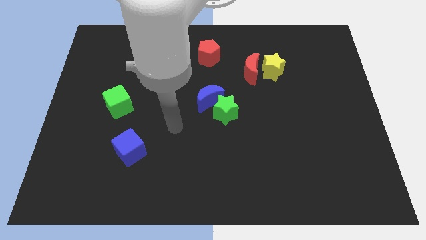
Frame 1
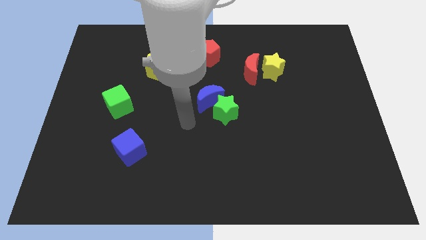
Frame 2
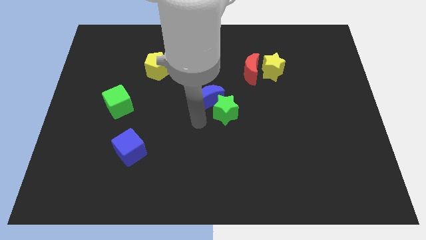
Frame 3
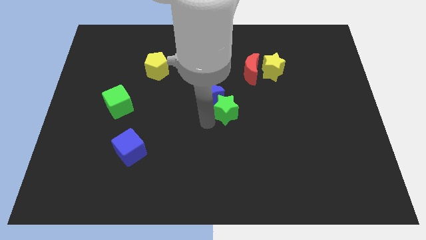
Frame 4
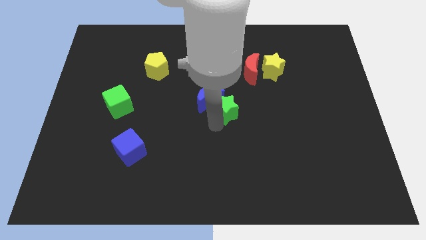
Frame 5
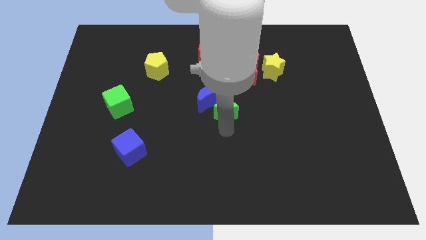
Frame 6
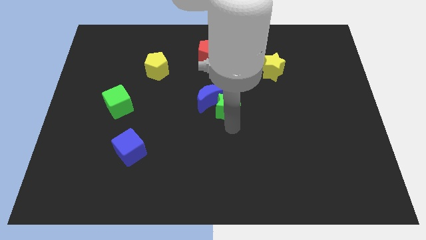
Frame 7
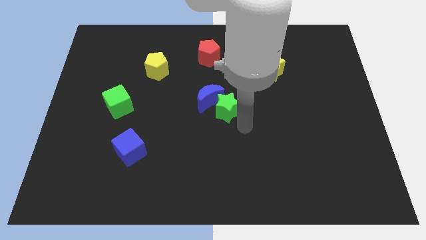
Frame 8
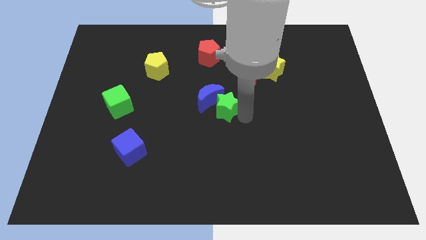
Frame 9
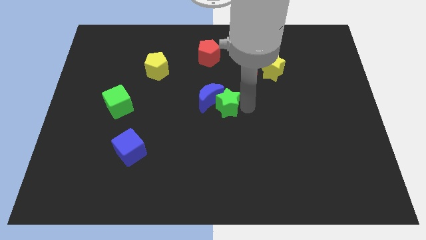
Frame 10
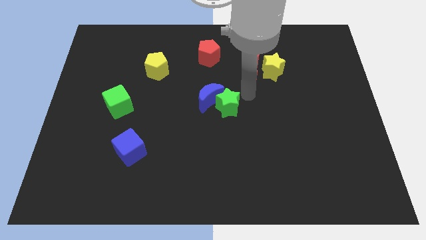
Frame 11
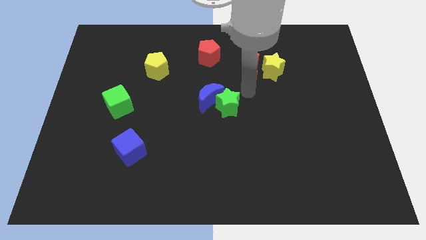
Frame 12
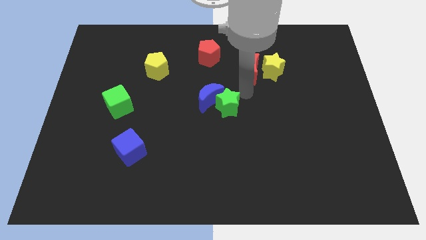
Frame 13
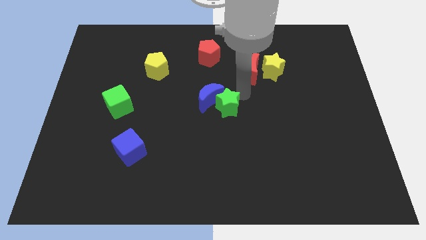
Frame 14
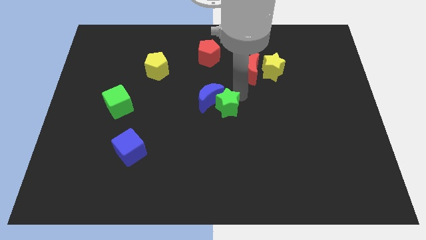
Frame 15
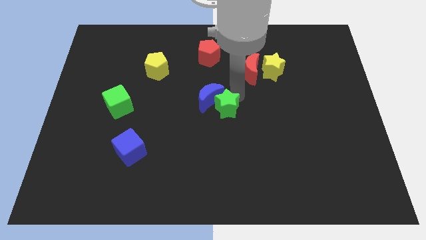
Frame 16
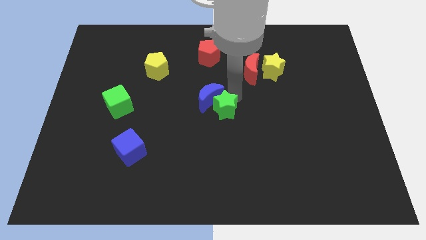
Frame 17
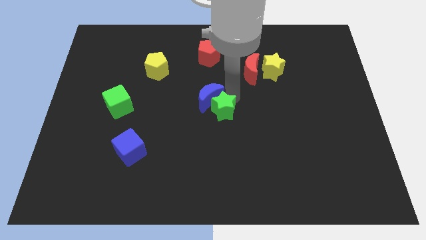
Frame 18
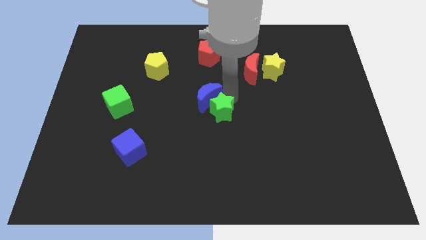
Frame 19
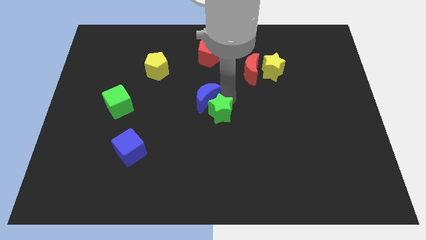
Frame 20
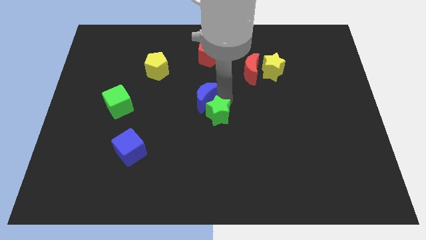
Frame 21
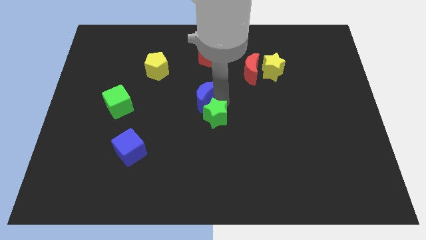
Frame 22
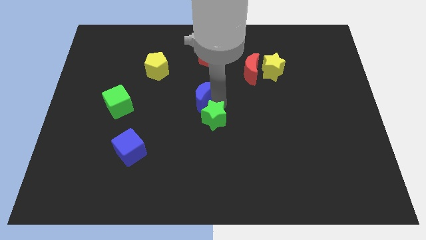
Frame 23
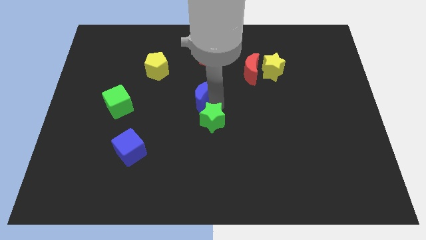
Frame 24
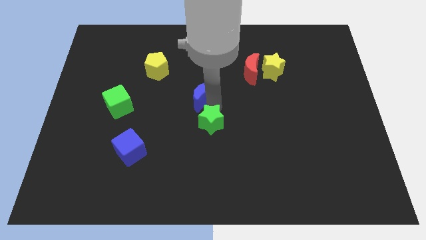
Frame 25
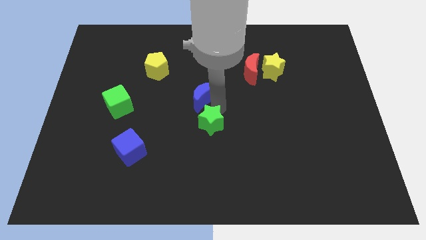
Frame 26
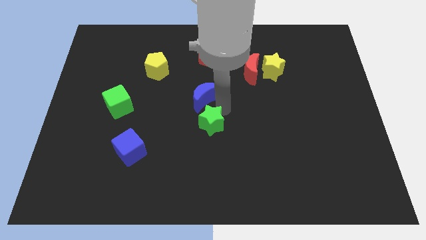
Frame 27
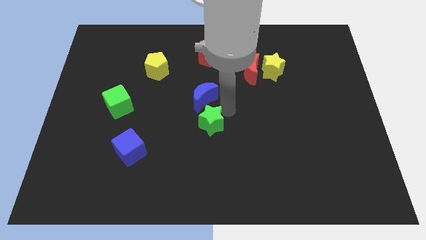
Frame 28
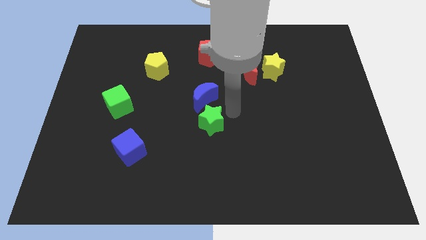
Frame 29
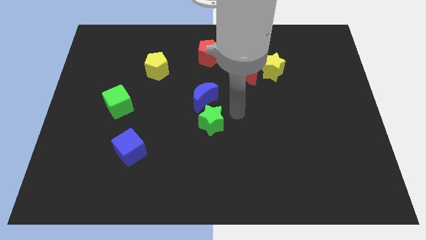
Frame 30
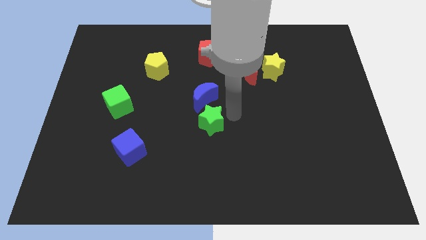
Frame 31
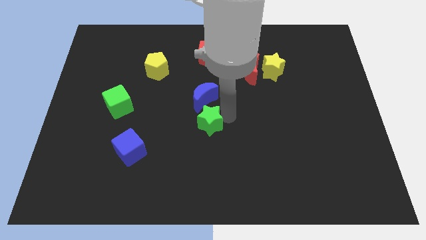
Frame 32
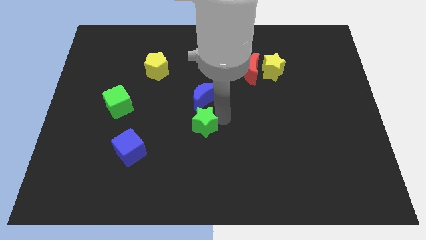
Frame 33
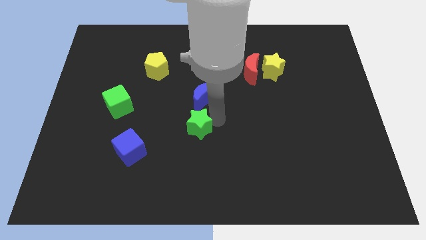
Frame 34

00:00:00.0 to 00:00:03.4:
slightly push the green star downwards and left

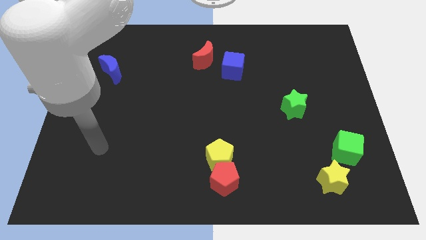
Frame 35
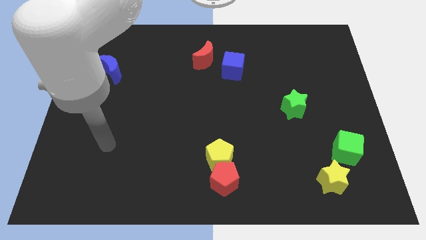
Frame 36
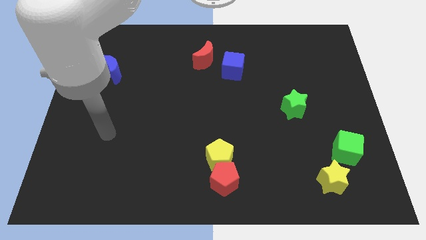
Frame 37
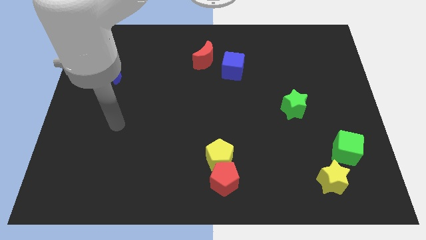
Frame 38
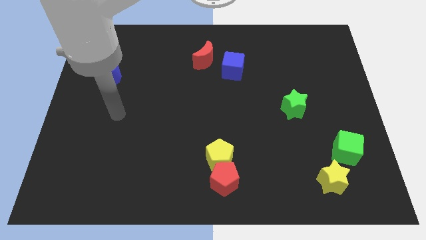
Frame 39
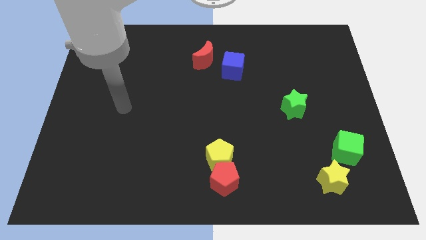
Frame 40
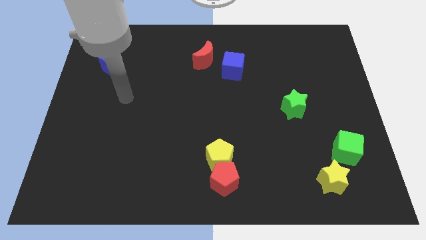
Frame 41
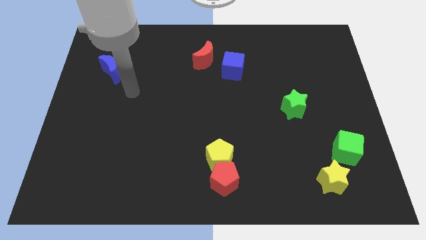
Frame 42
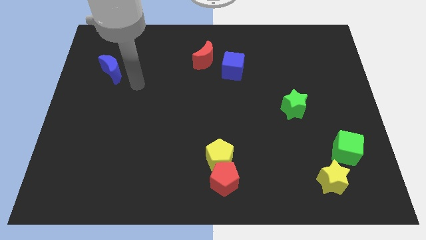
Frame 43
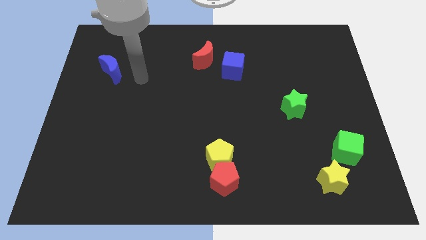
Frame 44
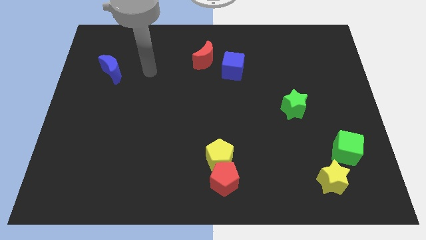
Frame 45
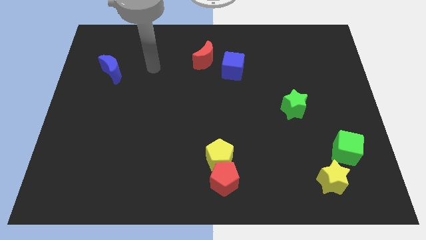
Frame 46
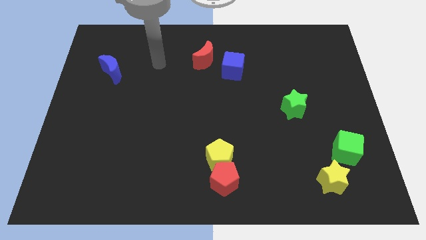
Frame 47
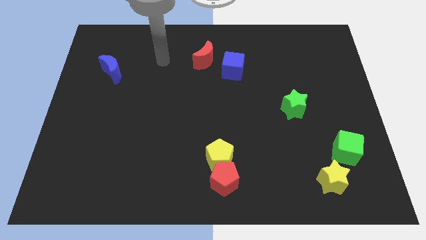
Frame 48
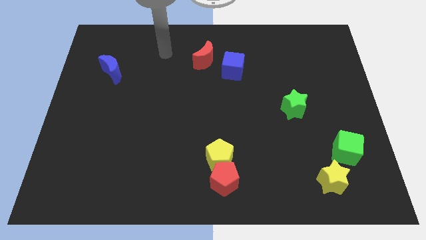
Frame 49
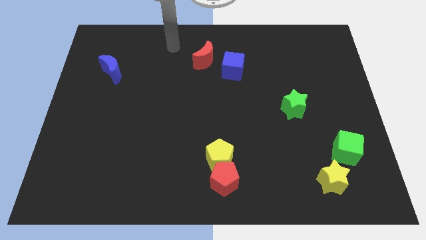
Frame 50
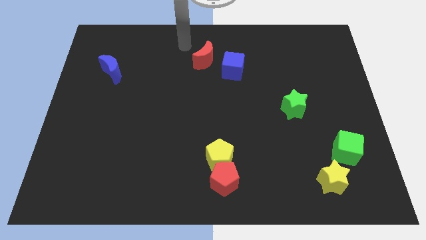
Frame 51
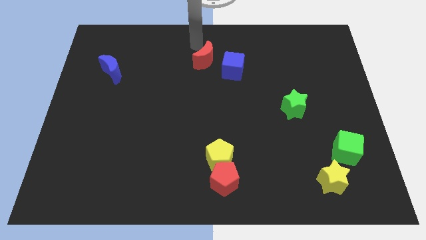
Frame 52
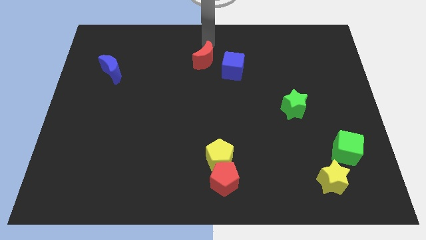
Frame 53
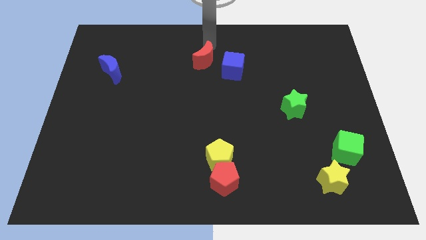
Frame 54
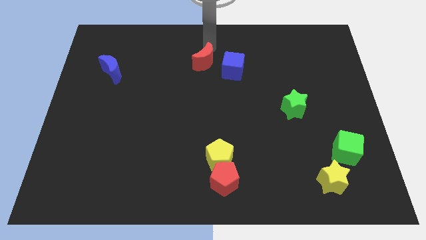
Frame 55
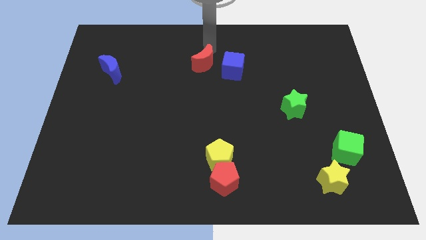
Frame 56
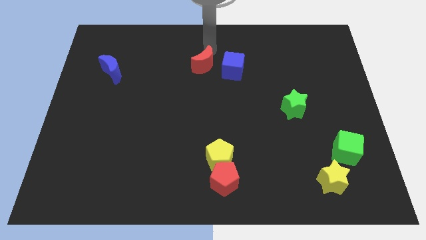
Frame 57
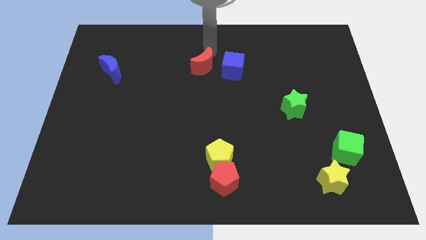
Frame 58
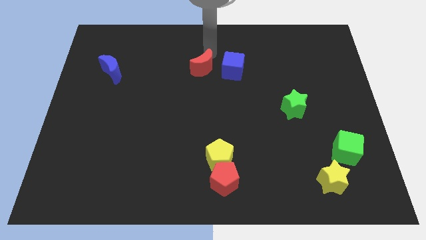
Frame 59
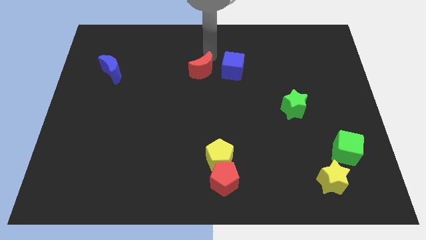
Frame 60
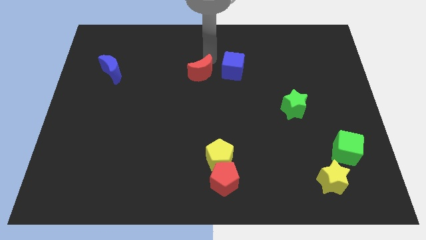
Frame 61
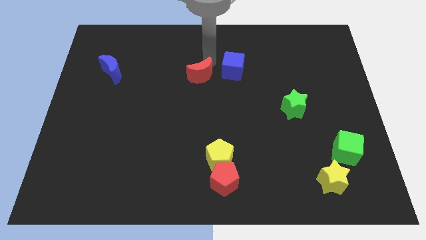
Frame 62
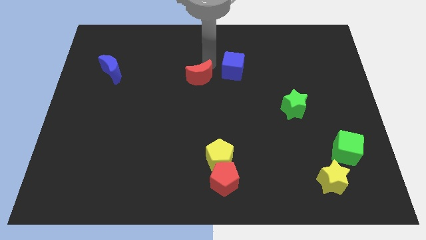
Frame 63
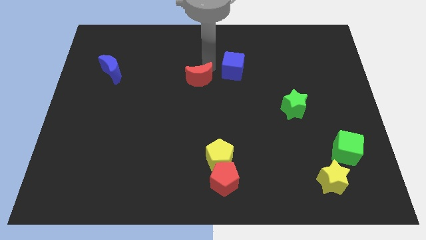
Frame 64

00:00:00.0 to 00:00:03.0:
slightly slide the red moon down

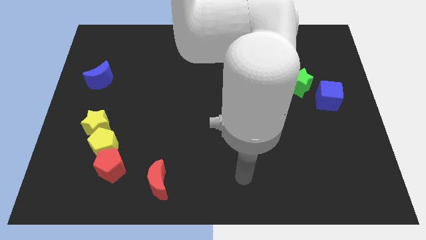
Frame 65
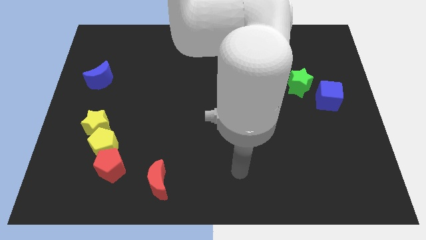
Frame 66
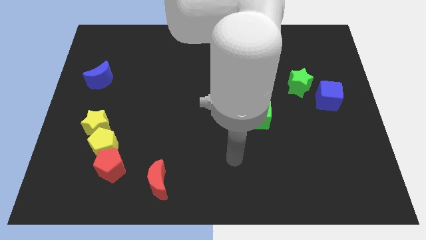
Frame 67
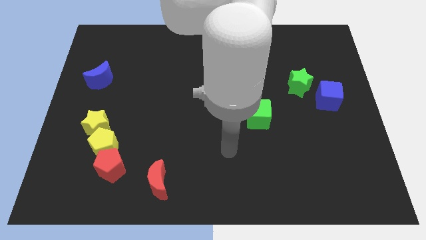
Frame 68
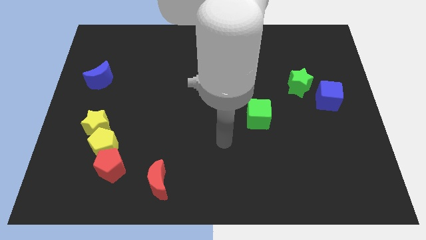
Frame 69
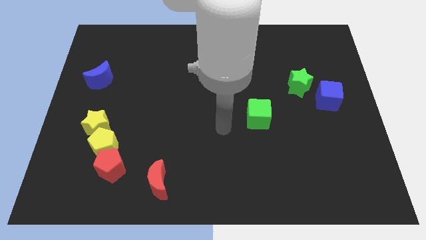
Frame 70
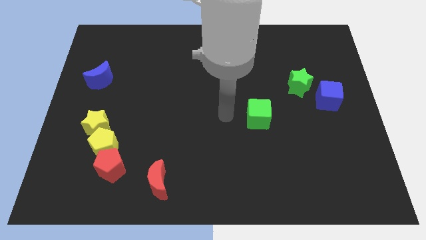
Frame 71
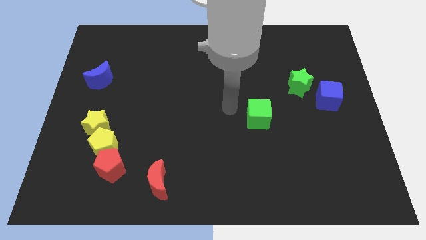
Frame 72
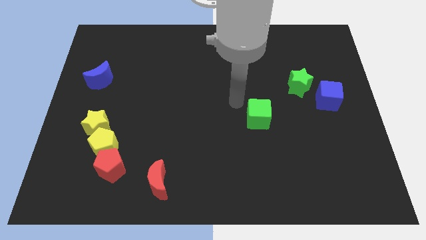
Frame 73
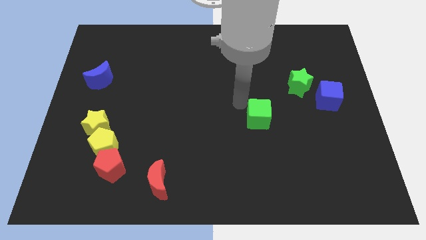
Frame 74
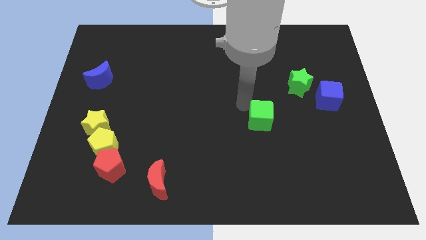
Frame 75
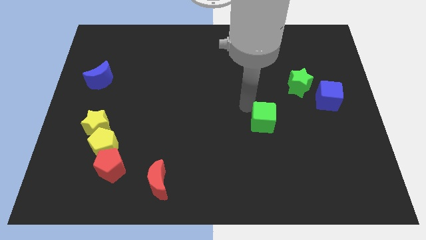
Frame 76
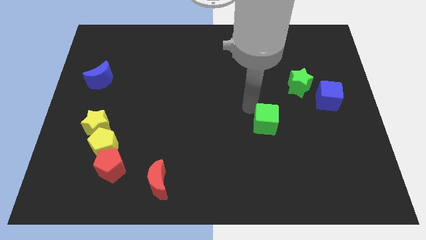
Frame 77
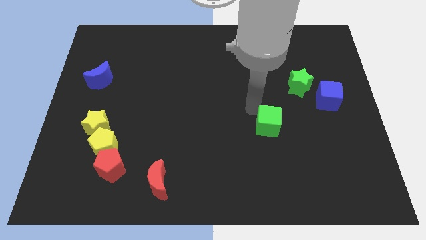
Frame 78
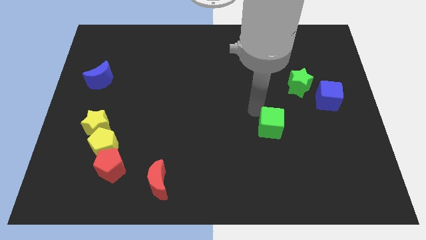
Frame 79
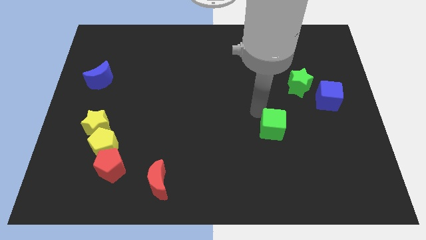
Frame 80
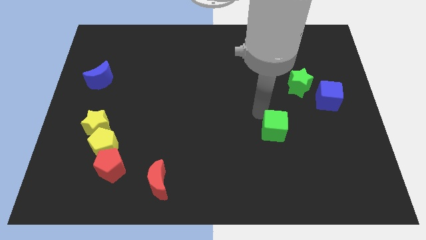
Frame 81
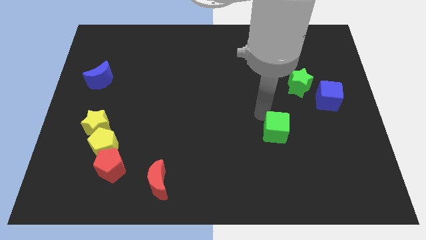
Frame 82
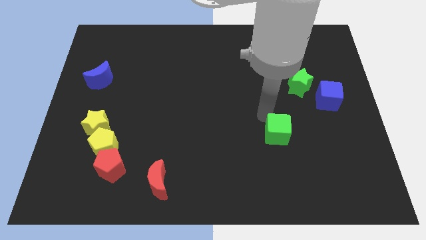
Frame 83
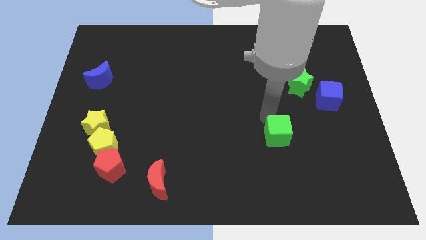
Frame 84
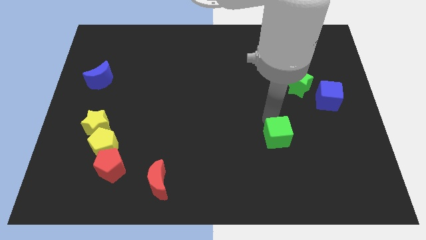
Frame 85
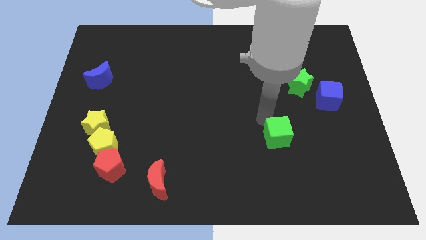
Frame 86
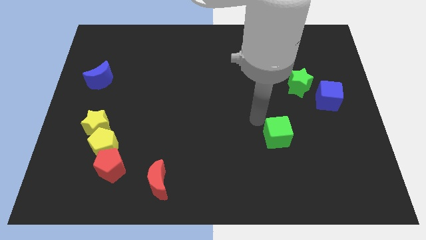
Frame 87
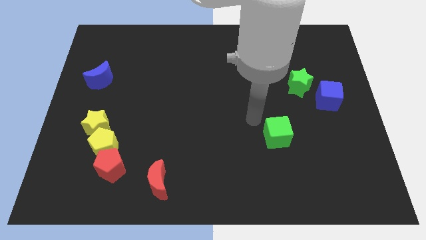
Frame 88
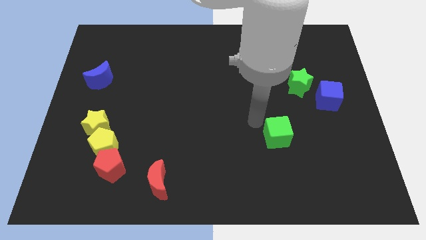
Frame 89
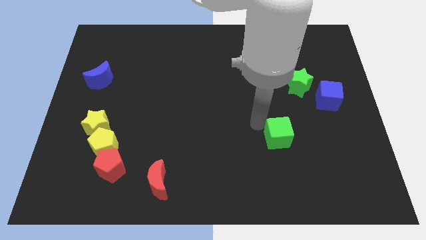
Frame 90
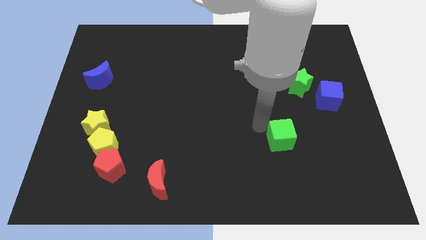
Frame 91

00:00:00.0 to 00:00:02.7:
slide the green cube down and to the right somewhat
